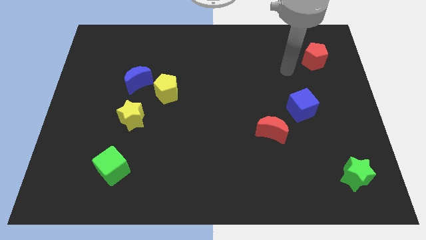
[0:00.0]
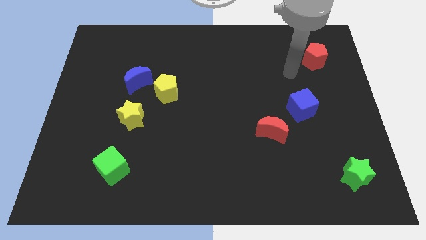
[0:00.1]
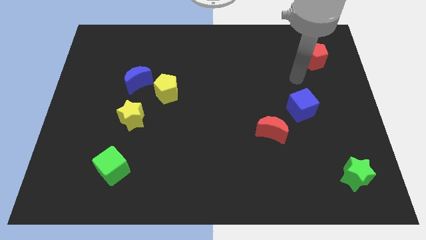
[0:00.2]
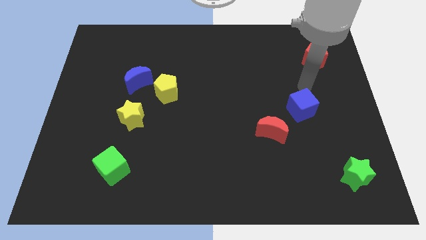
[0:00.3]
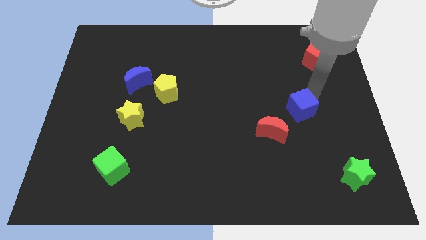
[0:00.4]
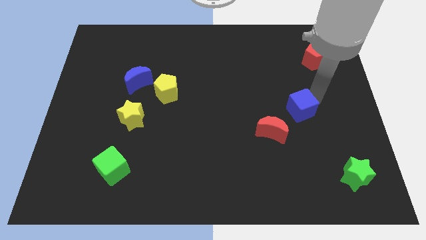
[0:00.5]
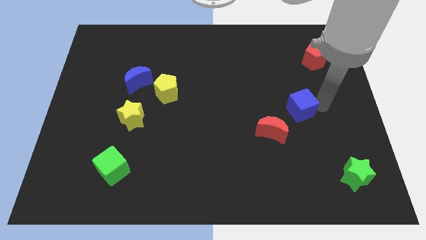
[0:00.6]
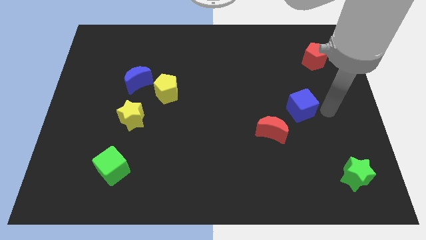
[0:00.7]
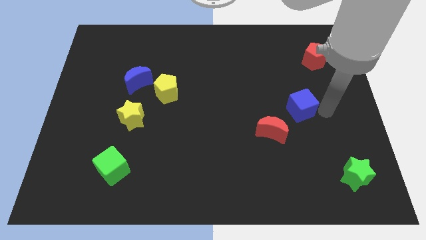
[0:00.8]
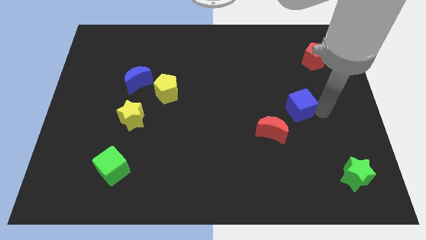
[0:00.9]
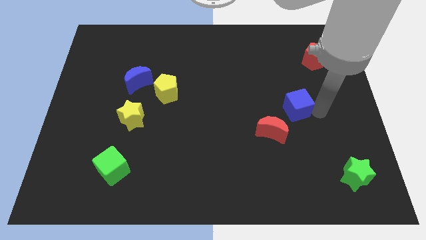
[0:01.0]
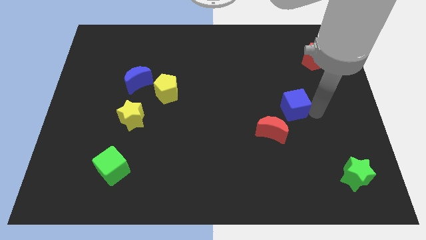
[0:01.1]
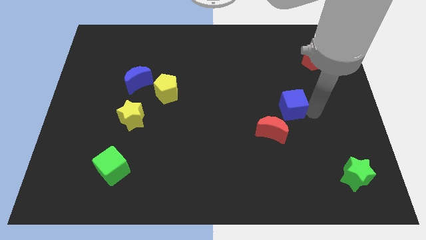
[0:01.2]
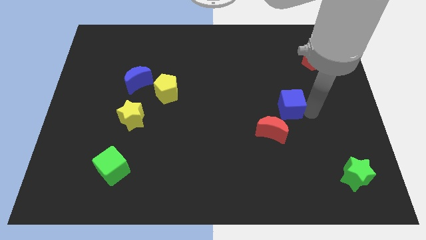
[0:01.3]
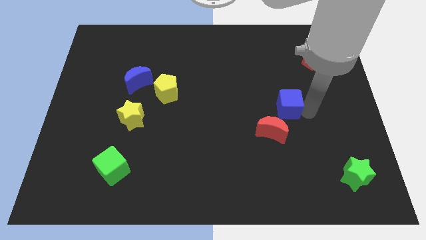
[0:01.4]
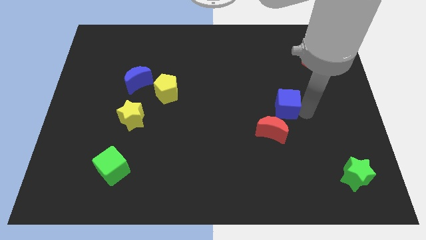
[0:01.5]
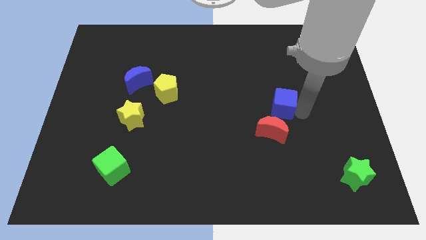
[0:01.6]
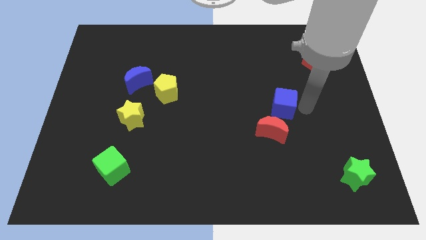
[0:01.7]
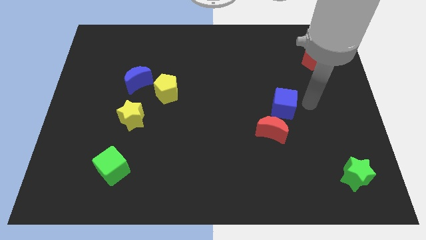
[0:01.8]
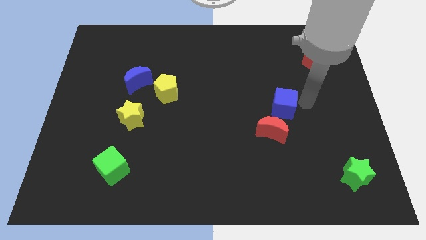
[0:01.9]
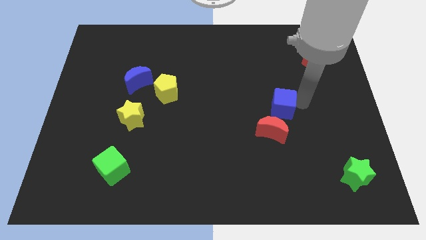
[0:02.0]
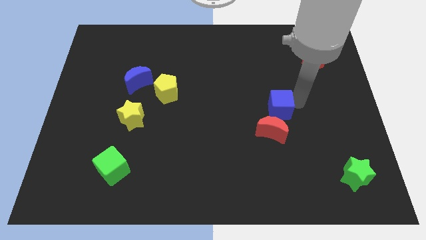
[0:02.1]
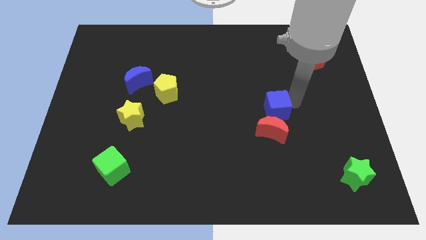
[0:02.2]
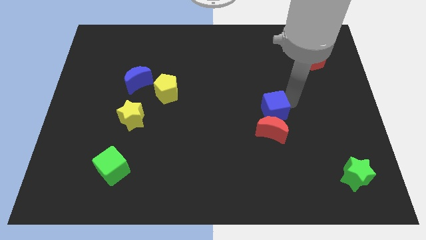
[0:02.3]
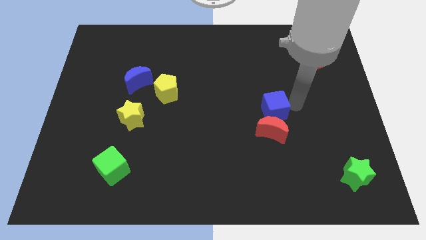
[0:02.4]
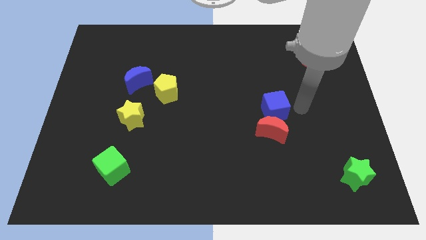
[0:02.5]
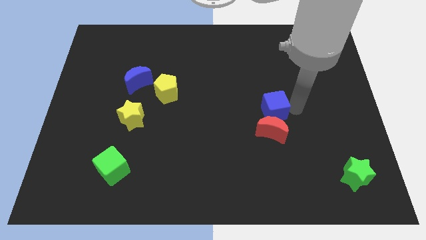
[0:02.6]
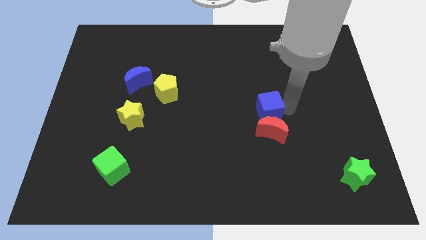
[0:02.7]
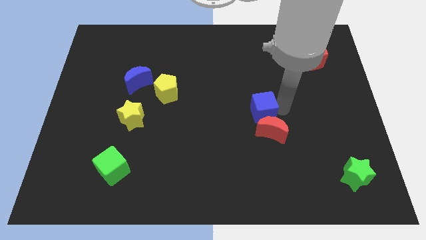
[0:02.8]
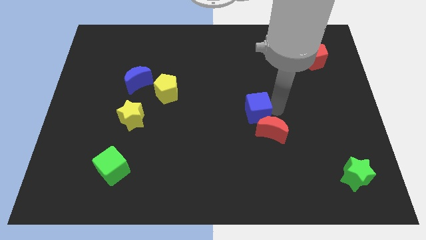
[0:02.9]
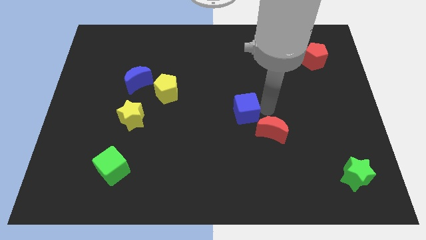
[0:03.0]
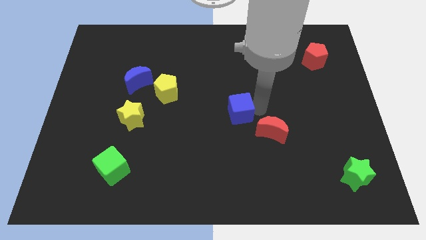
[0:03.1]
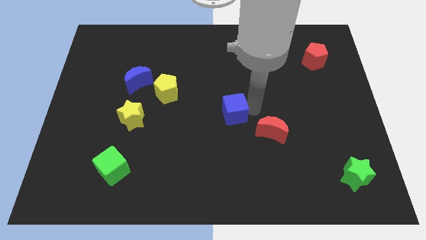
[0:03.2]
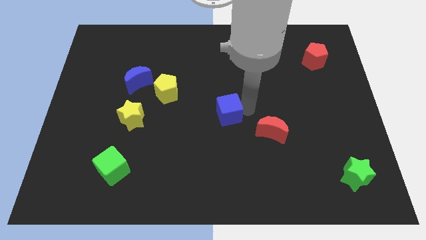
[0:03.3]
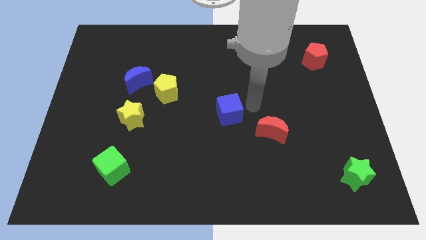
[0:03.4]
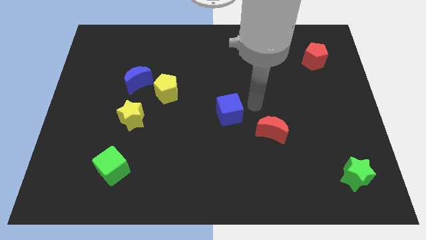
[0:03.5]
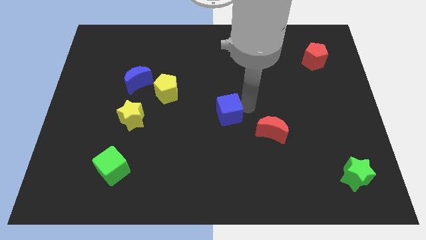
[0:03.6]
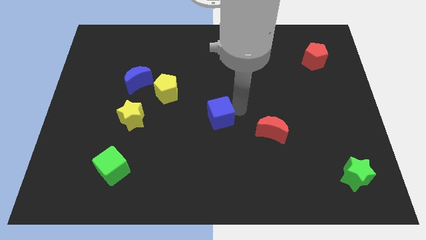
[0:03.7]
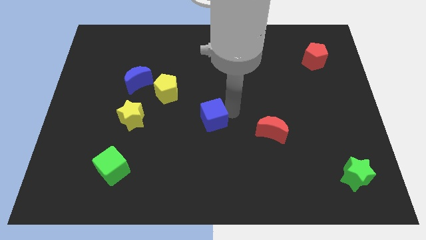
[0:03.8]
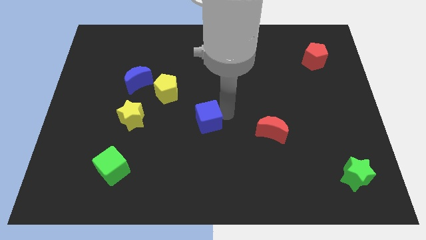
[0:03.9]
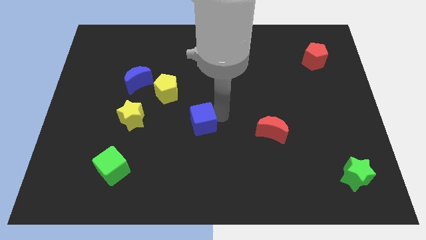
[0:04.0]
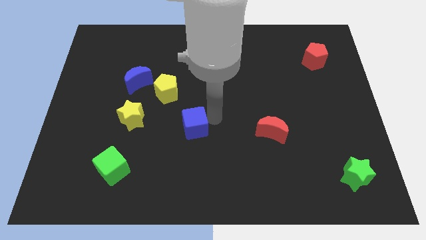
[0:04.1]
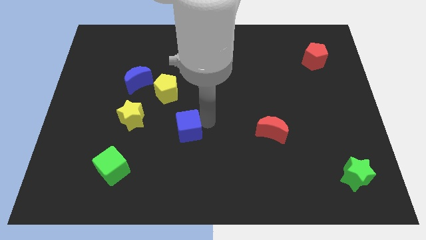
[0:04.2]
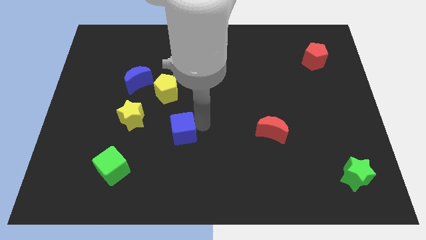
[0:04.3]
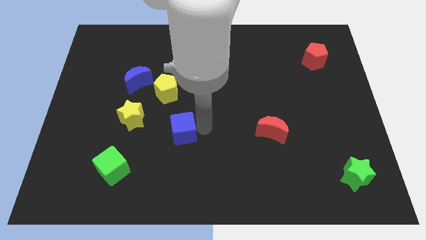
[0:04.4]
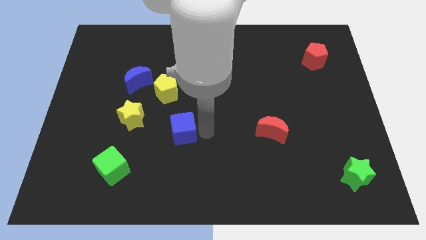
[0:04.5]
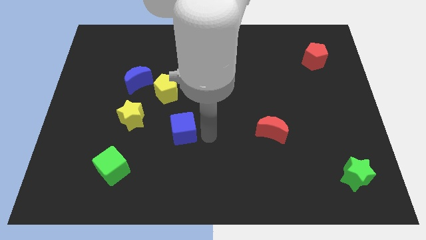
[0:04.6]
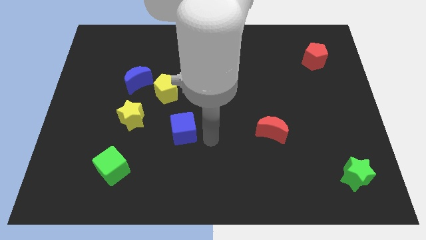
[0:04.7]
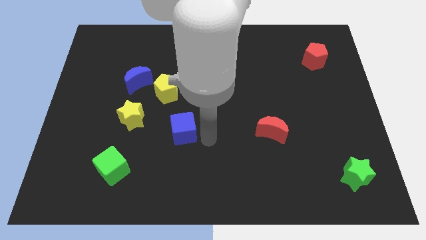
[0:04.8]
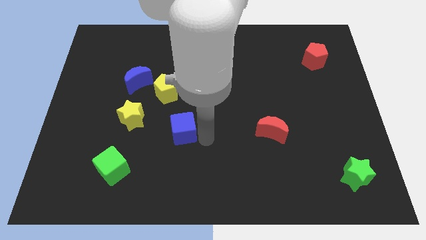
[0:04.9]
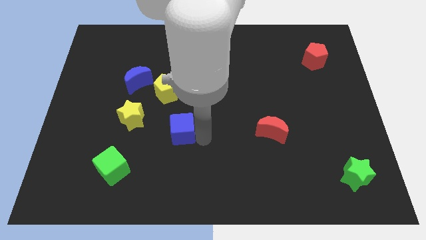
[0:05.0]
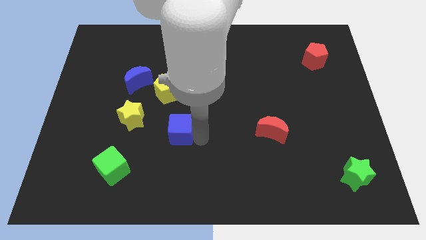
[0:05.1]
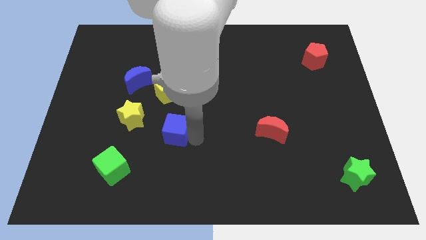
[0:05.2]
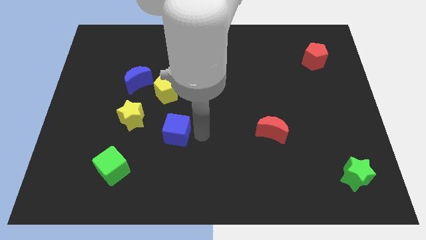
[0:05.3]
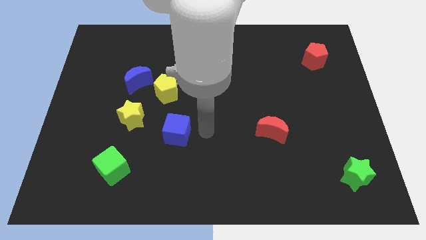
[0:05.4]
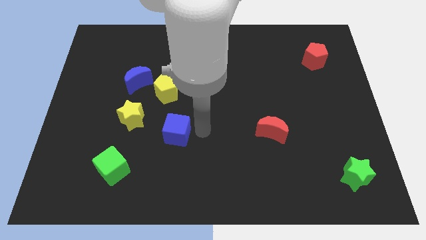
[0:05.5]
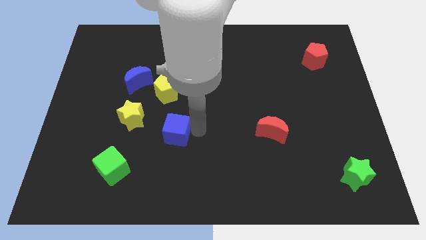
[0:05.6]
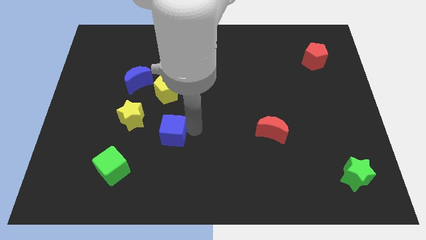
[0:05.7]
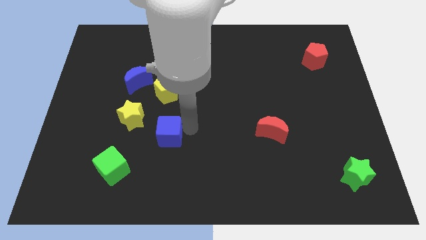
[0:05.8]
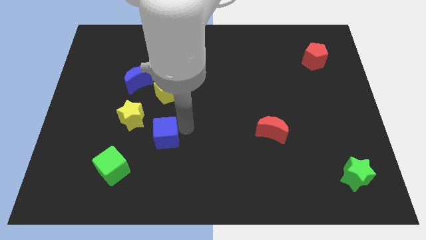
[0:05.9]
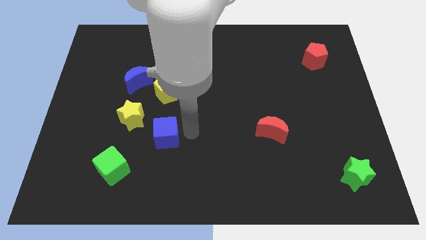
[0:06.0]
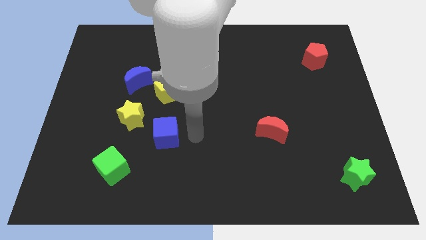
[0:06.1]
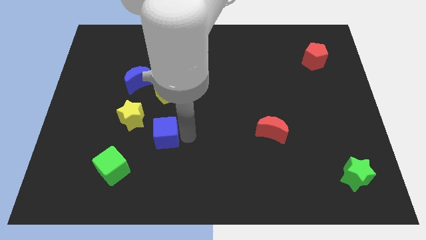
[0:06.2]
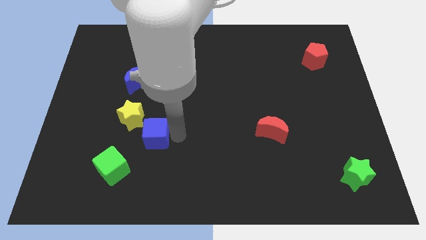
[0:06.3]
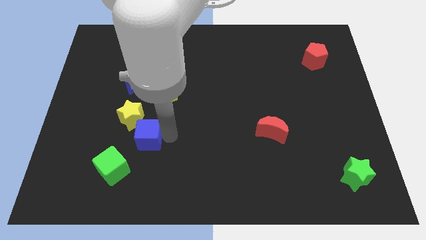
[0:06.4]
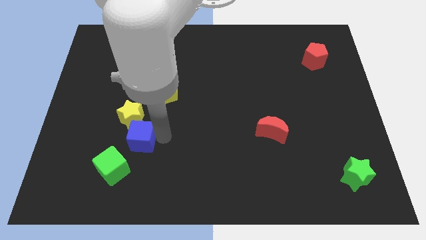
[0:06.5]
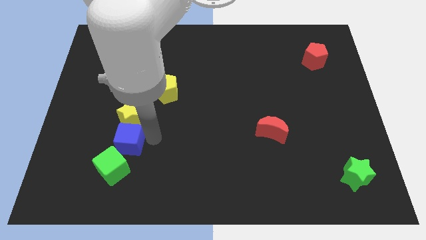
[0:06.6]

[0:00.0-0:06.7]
put the blue cube to the bottom left side of the yellow star
